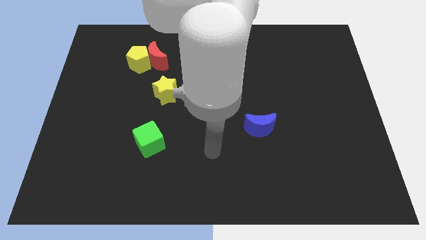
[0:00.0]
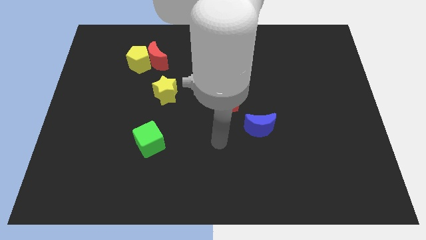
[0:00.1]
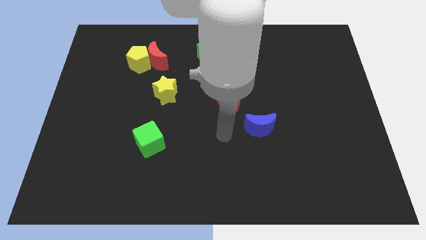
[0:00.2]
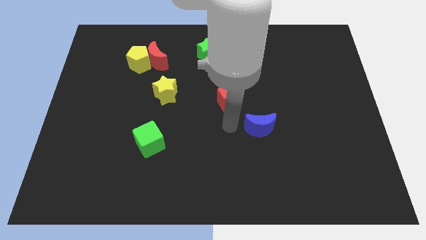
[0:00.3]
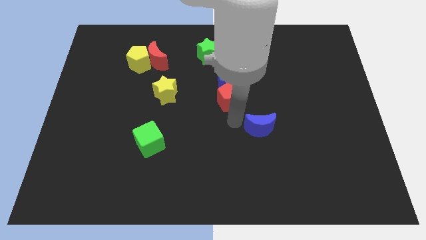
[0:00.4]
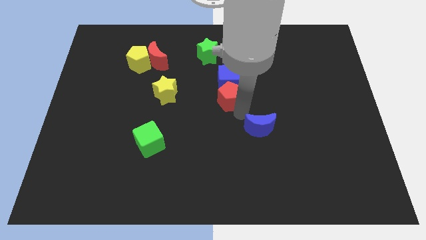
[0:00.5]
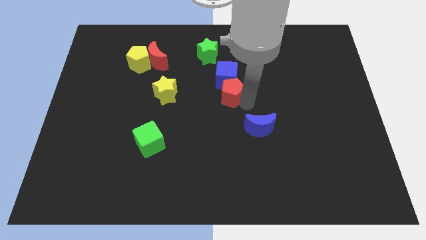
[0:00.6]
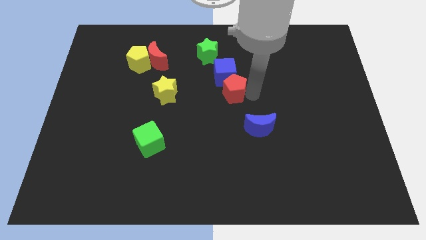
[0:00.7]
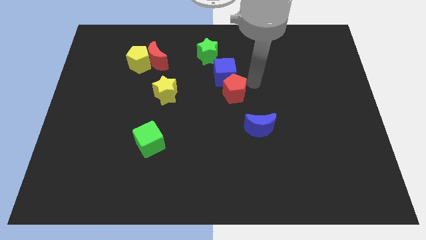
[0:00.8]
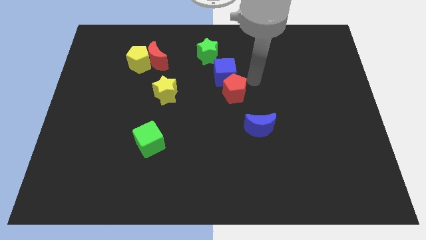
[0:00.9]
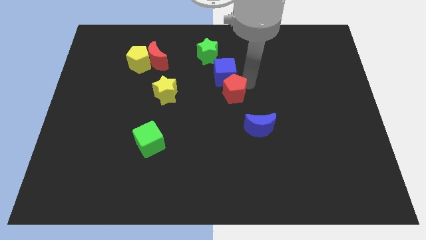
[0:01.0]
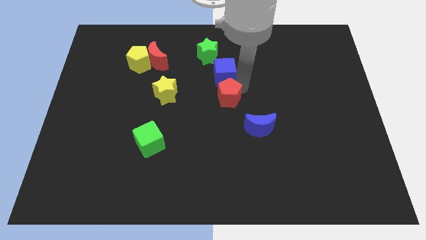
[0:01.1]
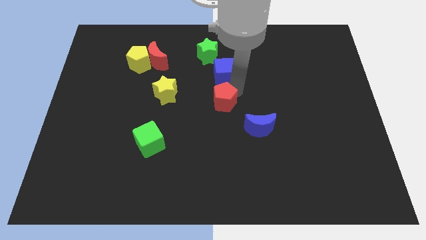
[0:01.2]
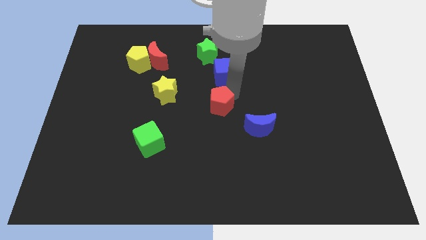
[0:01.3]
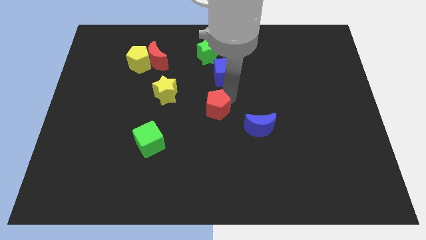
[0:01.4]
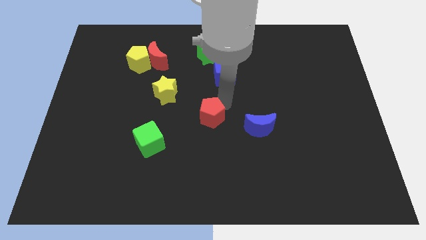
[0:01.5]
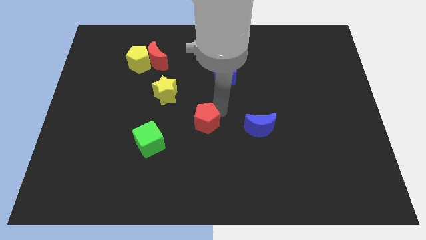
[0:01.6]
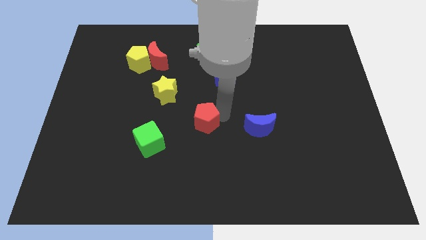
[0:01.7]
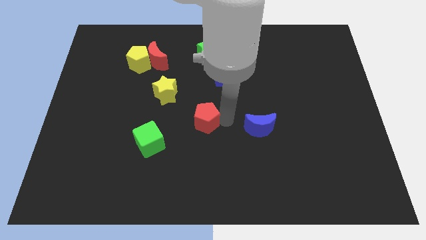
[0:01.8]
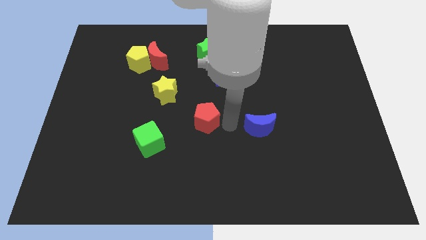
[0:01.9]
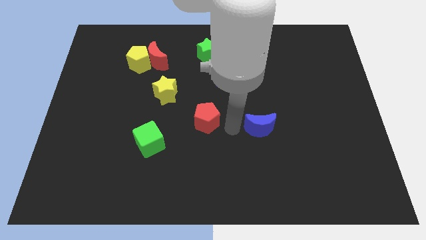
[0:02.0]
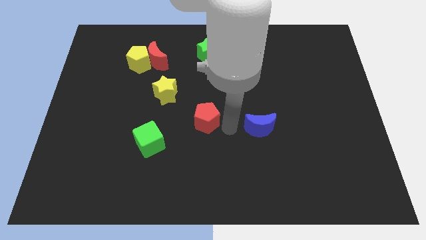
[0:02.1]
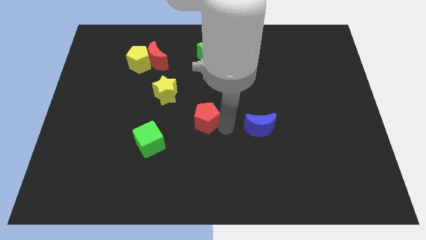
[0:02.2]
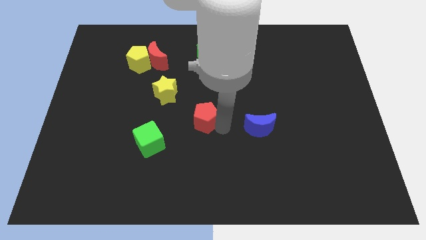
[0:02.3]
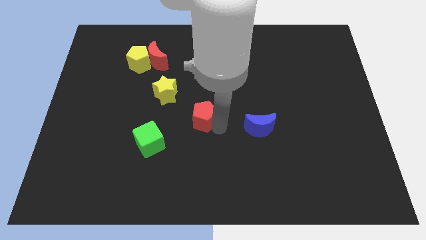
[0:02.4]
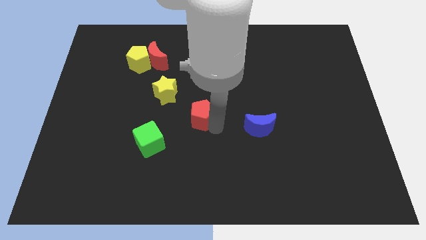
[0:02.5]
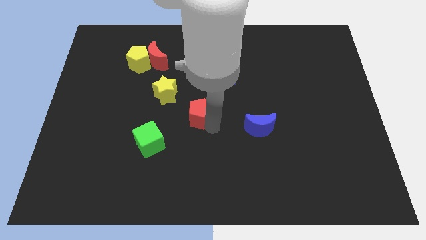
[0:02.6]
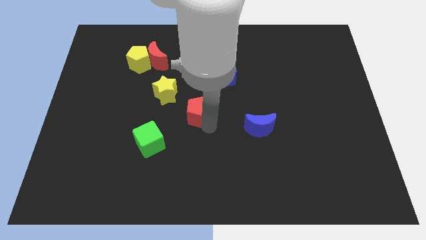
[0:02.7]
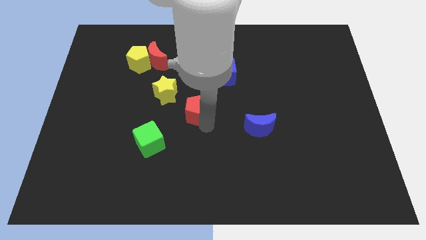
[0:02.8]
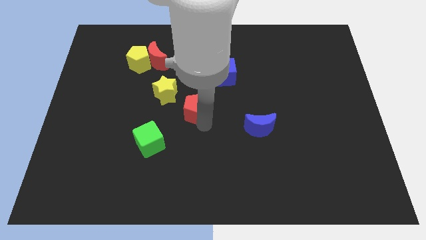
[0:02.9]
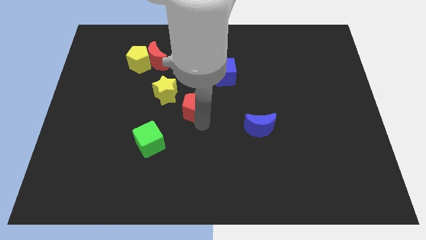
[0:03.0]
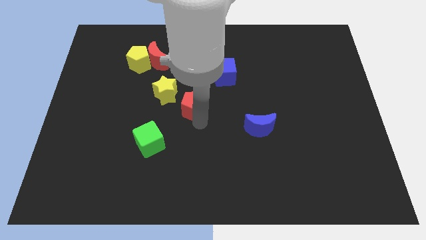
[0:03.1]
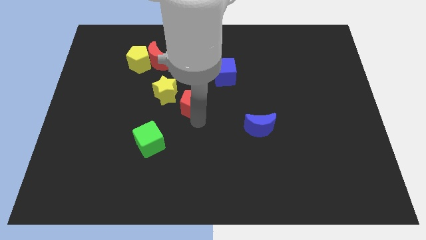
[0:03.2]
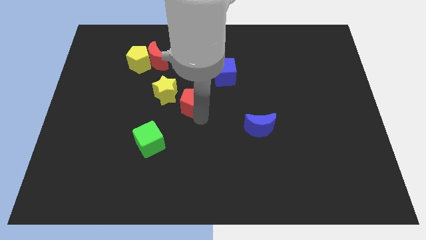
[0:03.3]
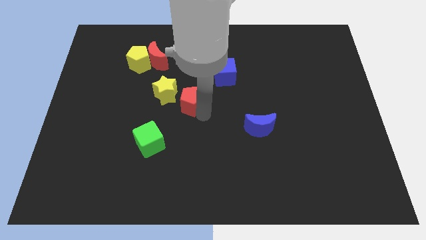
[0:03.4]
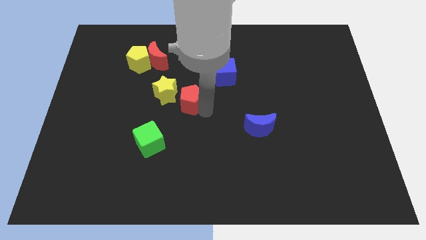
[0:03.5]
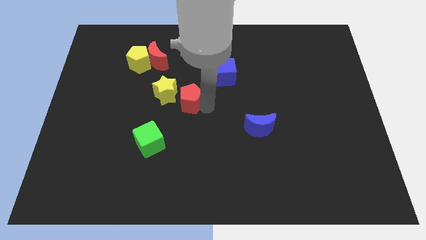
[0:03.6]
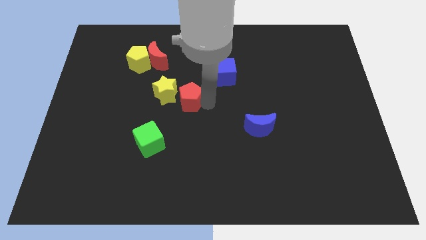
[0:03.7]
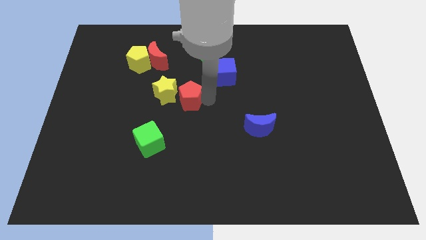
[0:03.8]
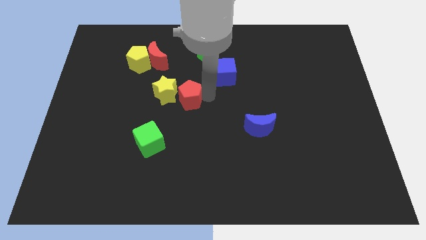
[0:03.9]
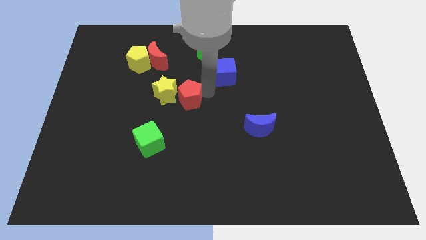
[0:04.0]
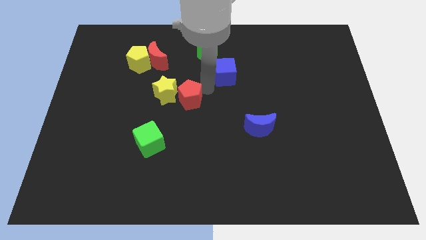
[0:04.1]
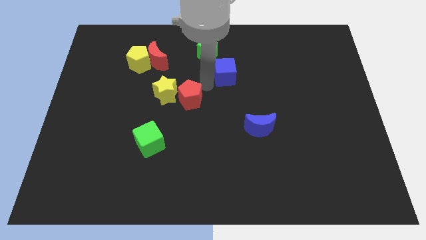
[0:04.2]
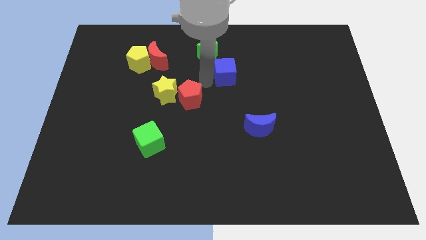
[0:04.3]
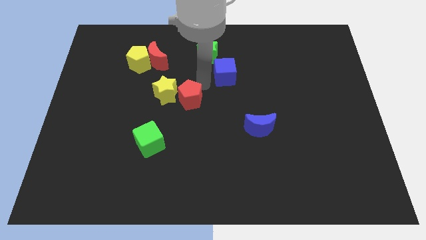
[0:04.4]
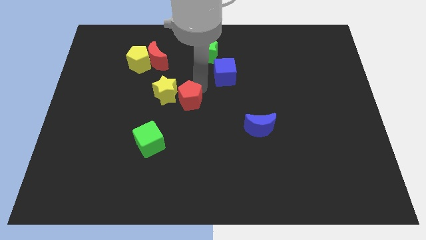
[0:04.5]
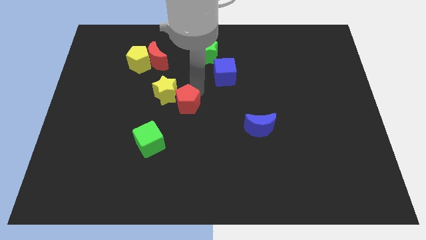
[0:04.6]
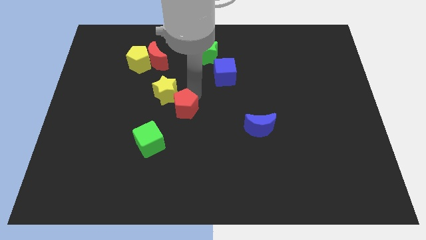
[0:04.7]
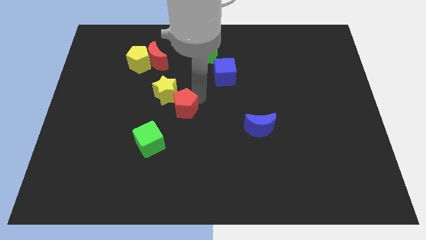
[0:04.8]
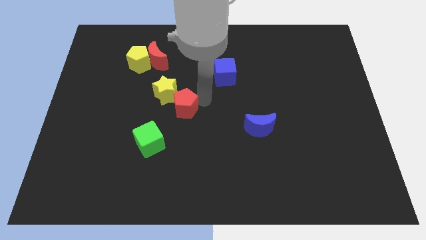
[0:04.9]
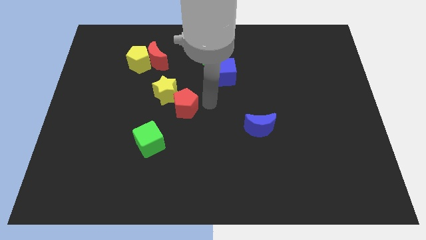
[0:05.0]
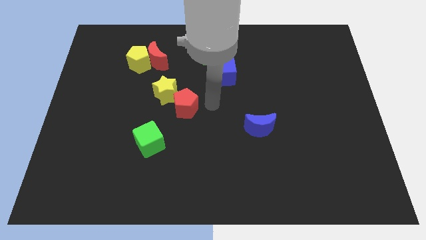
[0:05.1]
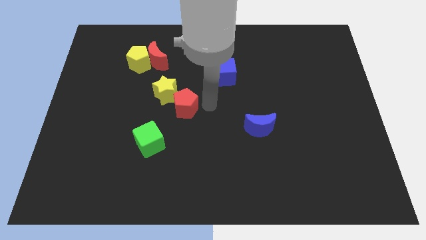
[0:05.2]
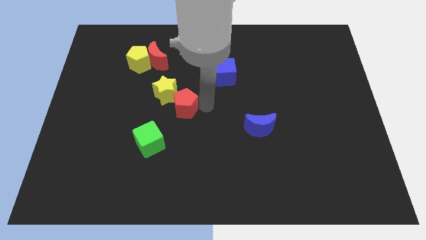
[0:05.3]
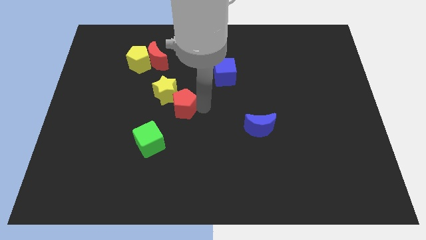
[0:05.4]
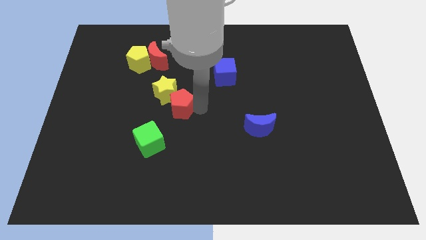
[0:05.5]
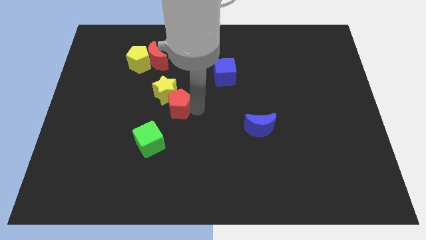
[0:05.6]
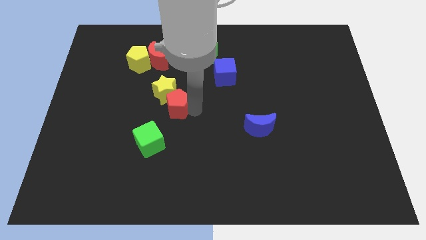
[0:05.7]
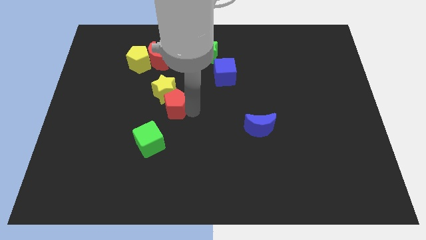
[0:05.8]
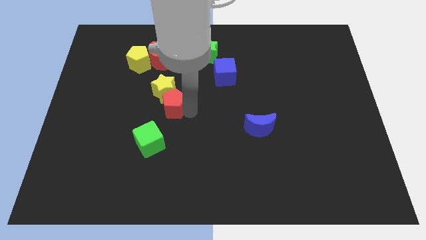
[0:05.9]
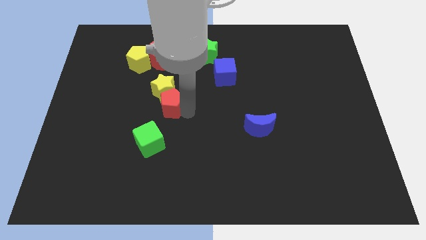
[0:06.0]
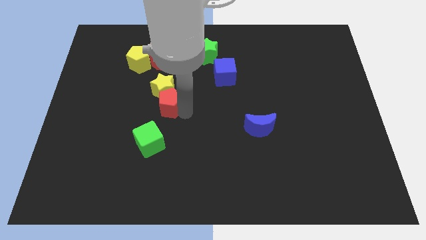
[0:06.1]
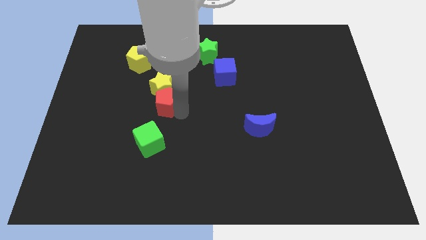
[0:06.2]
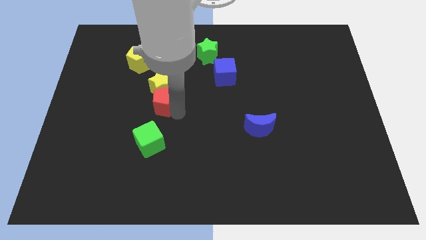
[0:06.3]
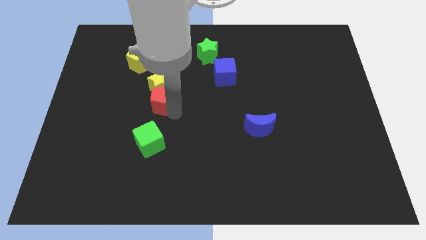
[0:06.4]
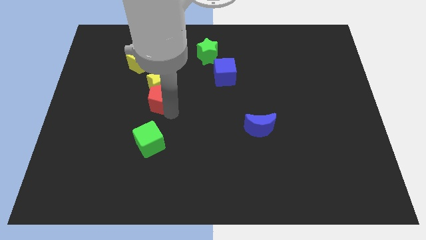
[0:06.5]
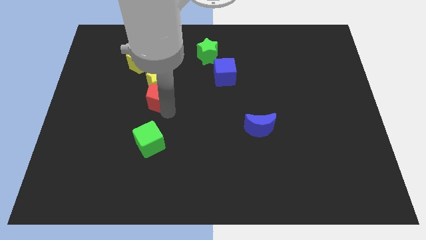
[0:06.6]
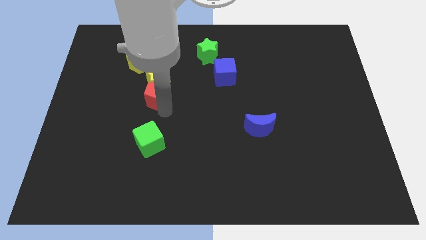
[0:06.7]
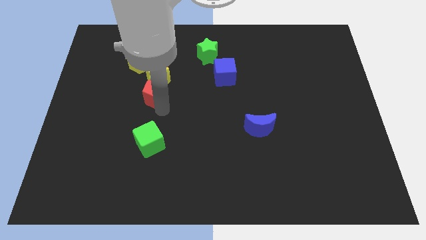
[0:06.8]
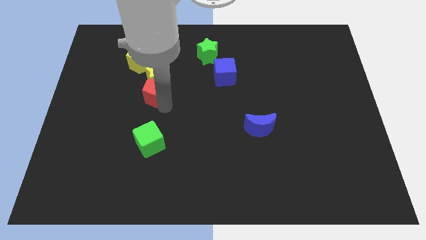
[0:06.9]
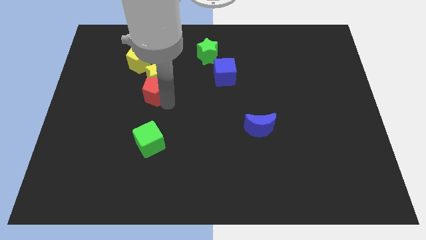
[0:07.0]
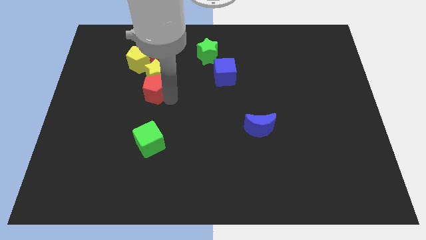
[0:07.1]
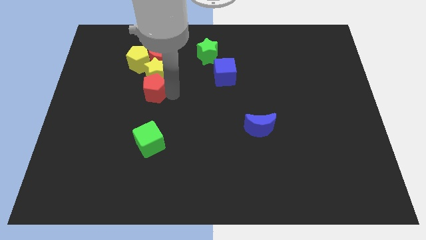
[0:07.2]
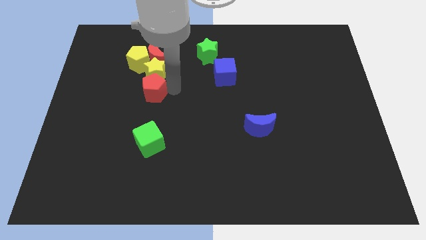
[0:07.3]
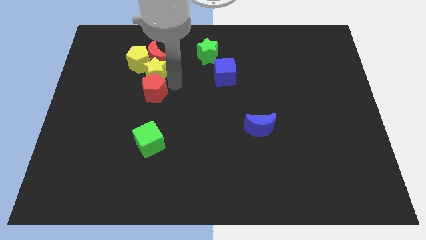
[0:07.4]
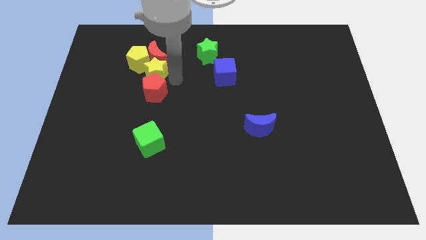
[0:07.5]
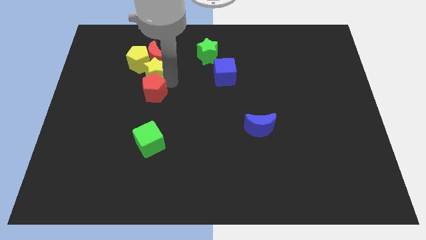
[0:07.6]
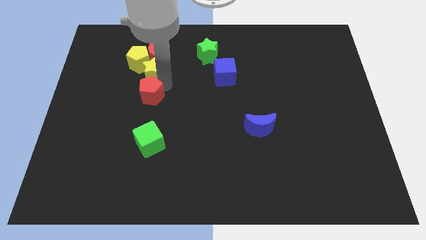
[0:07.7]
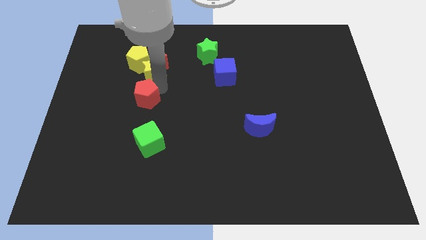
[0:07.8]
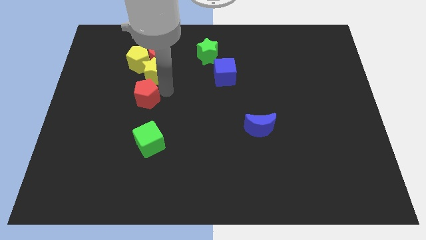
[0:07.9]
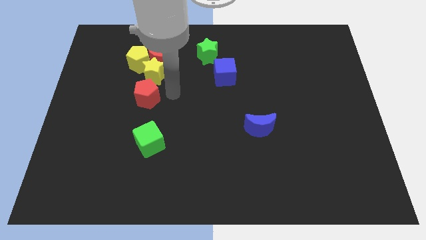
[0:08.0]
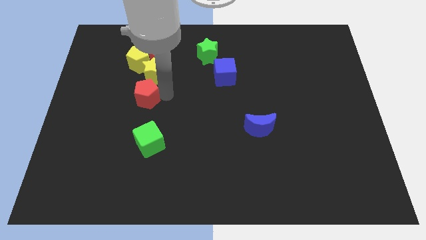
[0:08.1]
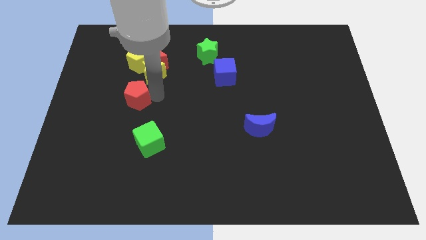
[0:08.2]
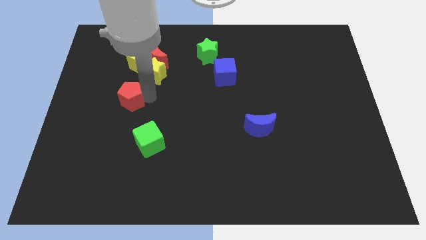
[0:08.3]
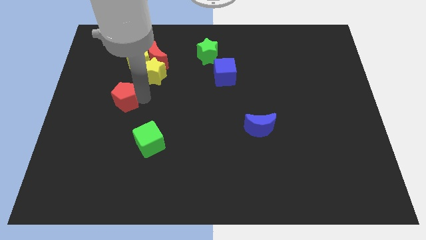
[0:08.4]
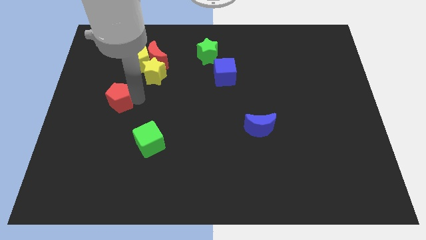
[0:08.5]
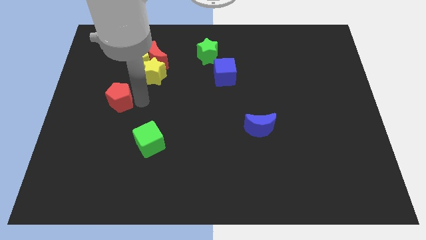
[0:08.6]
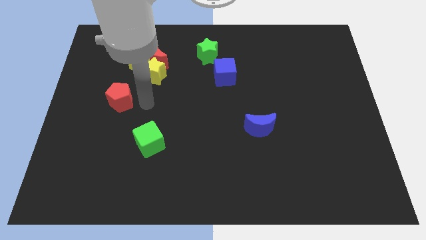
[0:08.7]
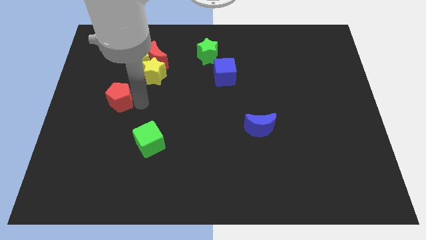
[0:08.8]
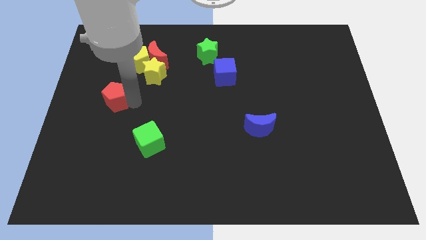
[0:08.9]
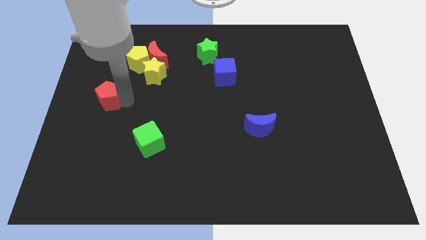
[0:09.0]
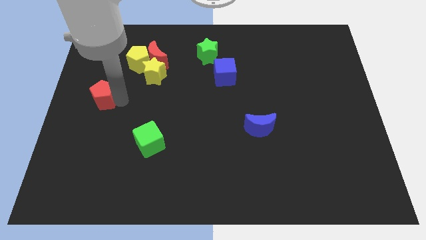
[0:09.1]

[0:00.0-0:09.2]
push the red pentagon to the center left
